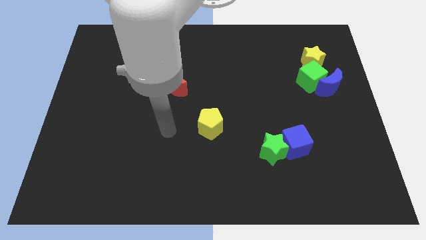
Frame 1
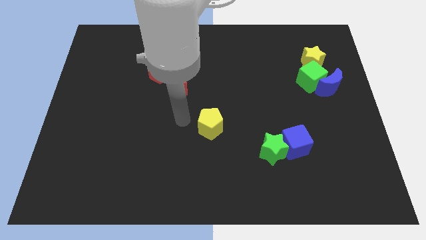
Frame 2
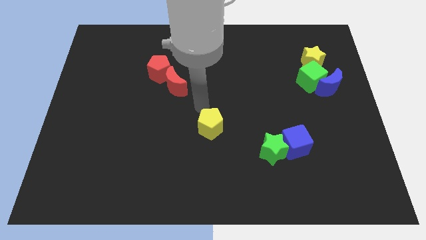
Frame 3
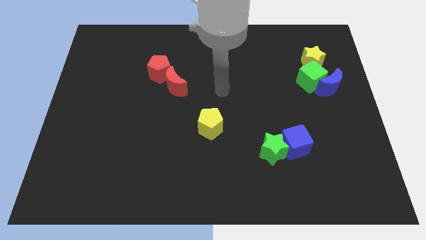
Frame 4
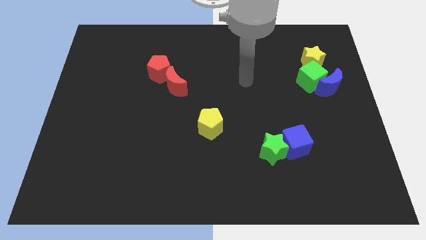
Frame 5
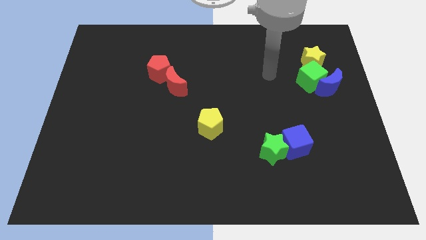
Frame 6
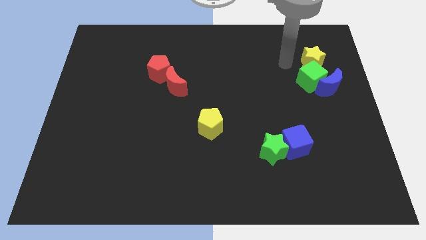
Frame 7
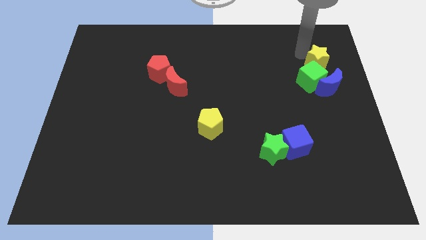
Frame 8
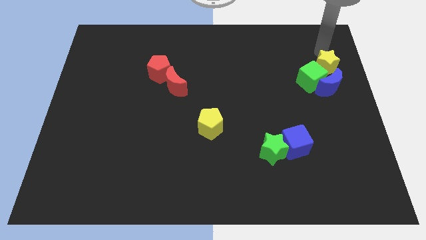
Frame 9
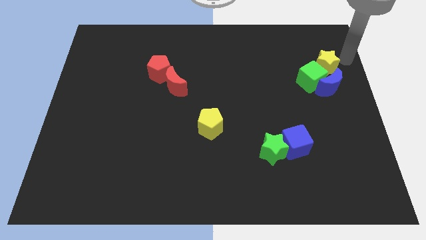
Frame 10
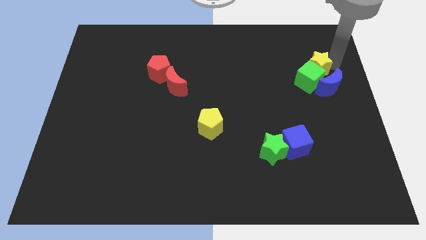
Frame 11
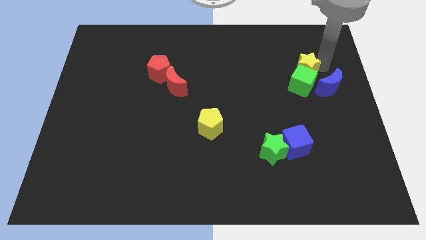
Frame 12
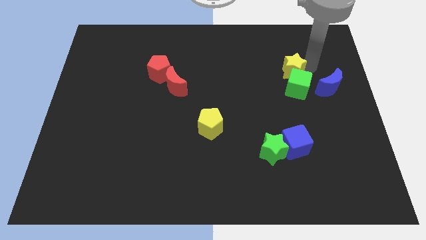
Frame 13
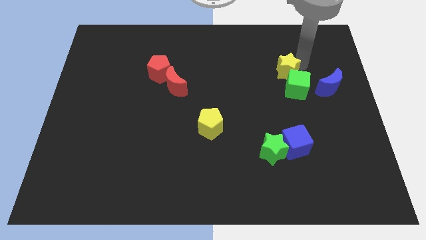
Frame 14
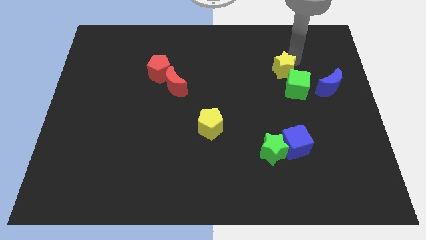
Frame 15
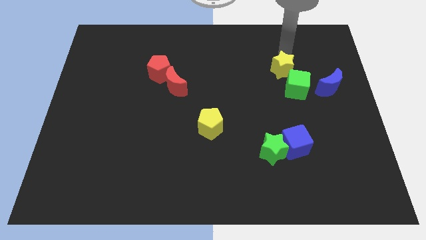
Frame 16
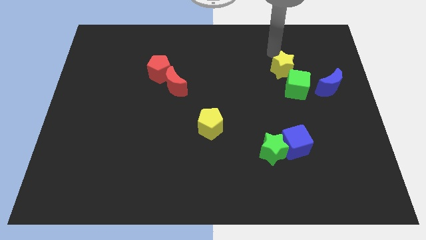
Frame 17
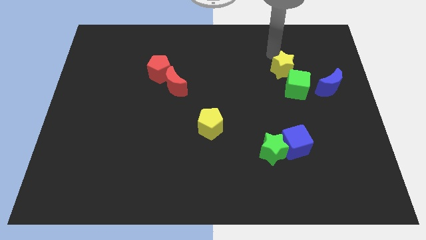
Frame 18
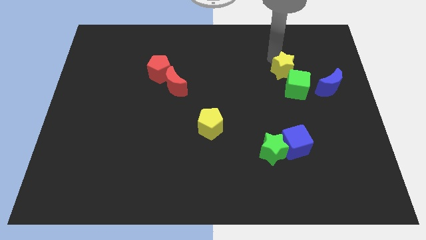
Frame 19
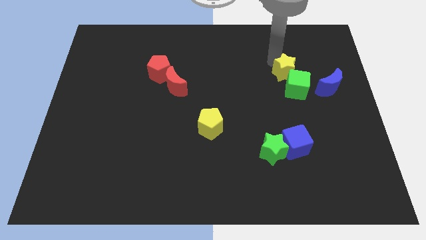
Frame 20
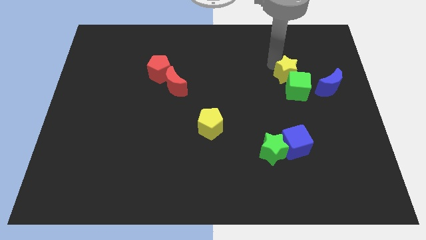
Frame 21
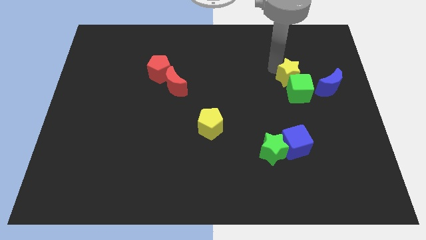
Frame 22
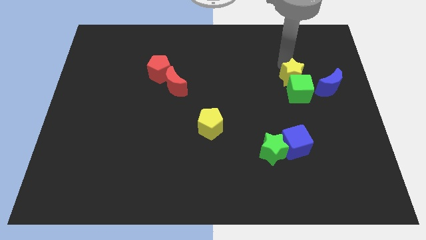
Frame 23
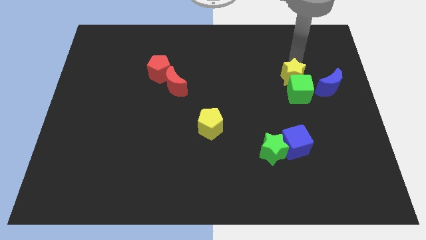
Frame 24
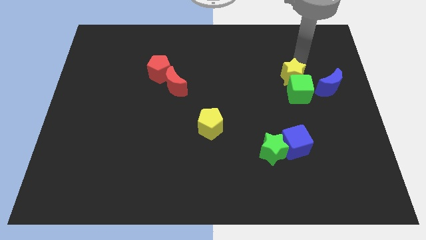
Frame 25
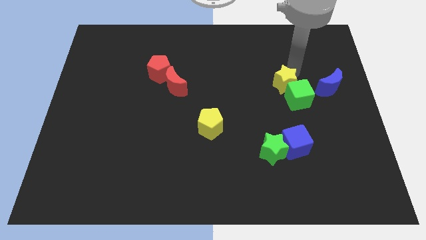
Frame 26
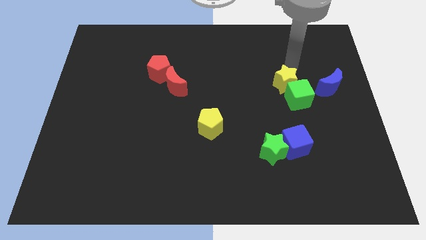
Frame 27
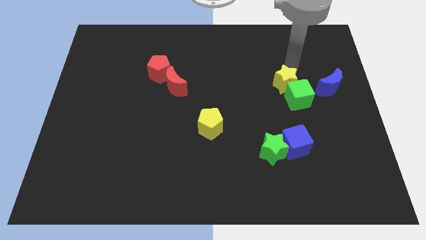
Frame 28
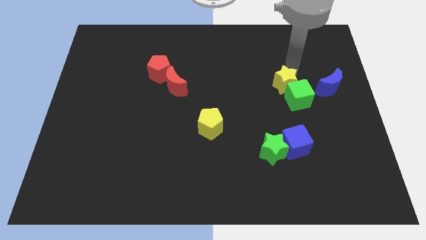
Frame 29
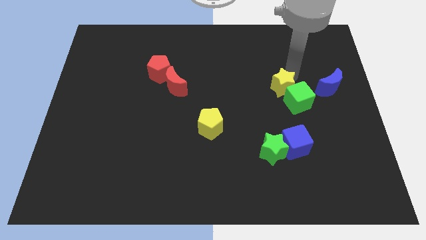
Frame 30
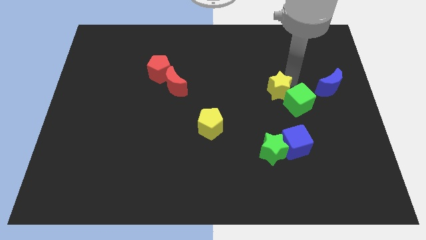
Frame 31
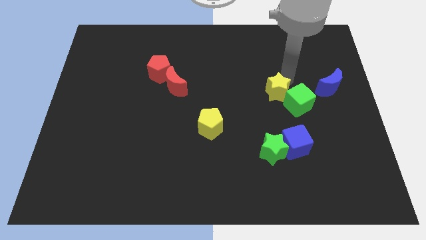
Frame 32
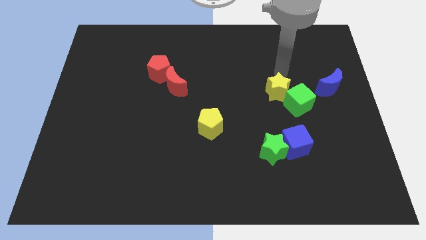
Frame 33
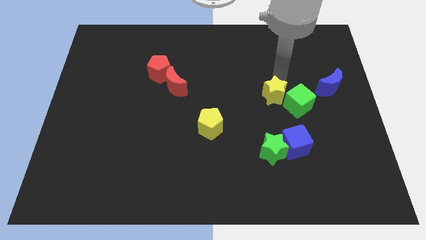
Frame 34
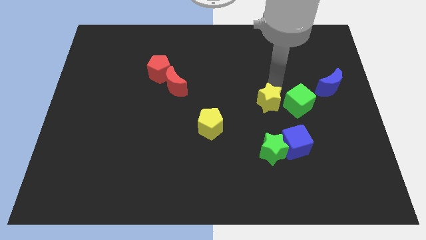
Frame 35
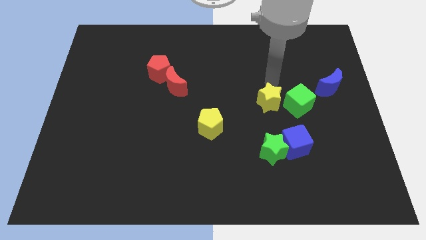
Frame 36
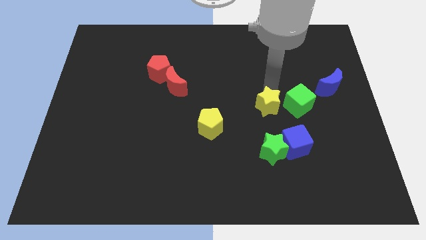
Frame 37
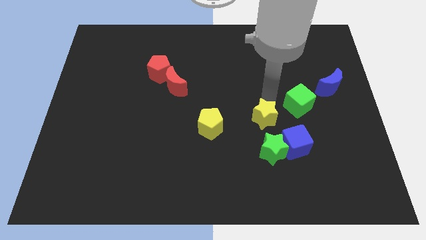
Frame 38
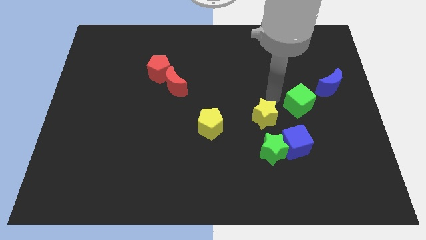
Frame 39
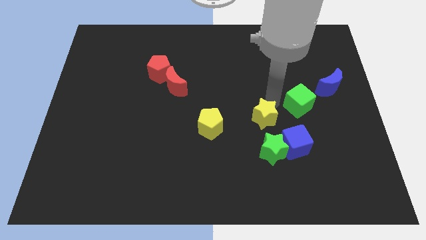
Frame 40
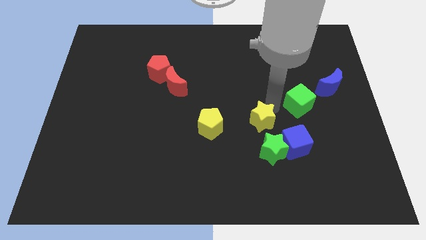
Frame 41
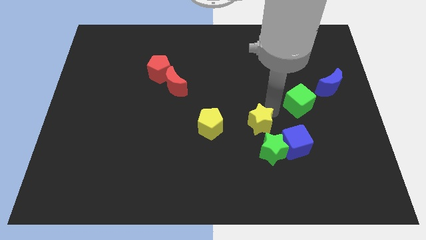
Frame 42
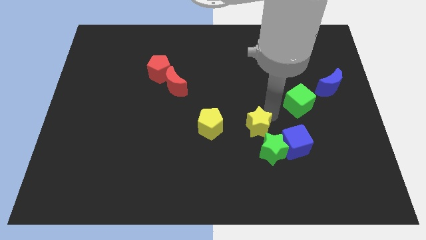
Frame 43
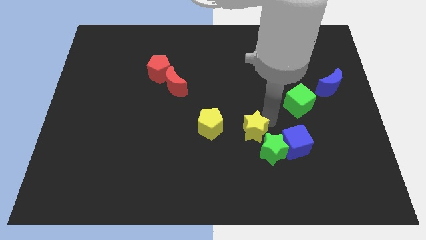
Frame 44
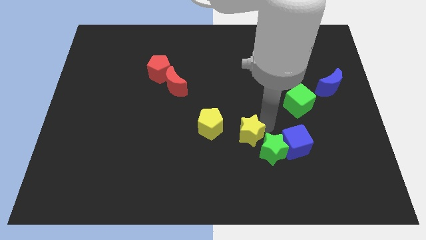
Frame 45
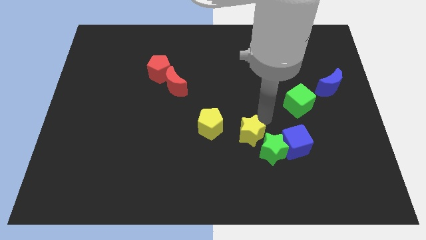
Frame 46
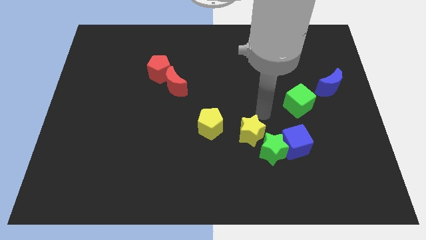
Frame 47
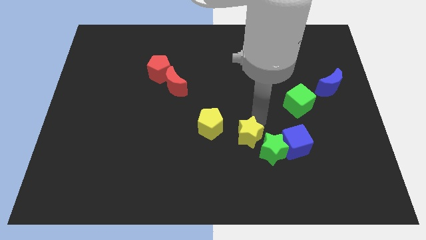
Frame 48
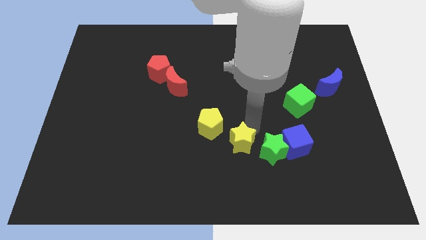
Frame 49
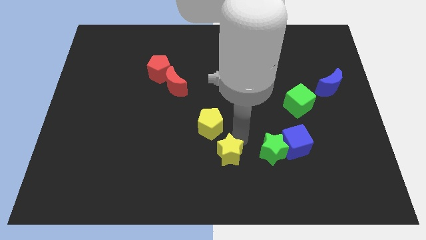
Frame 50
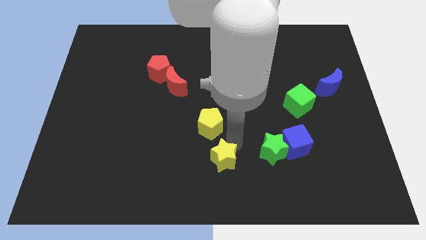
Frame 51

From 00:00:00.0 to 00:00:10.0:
push the yellow star to the bottom

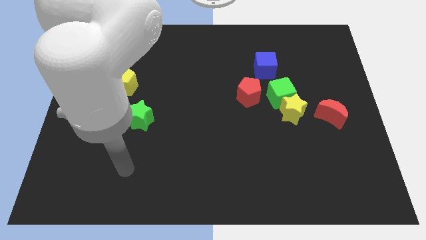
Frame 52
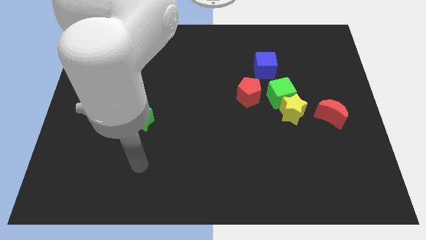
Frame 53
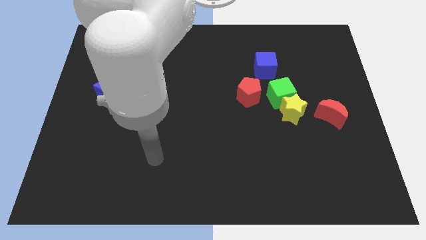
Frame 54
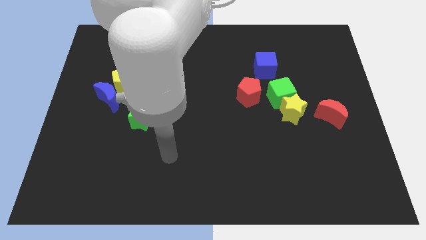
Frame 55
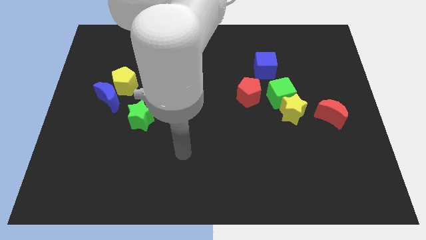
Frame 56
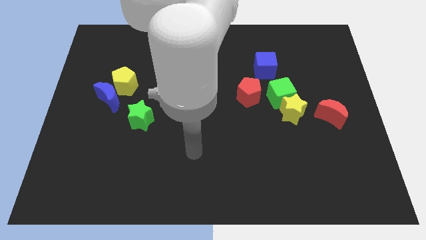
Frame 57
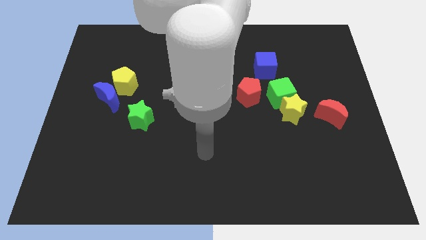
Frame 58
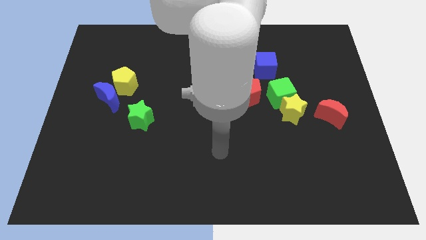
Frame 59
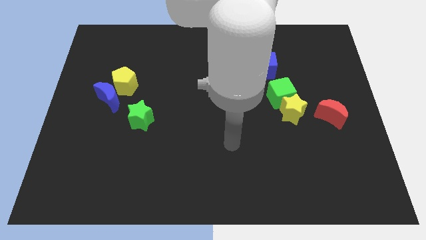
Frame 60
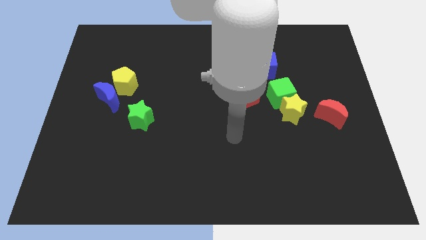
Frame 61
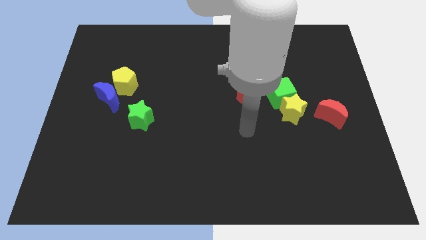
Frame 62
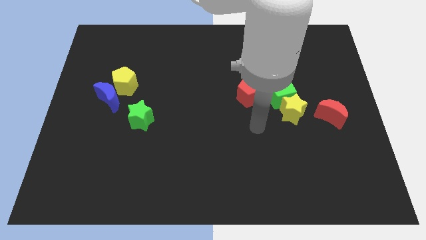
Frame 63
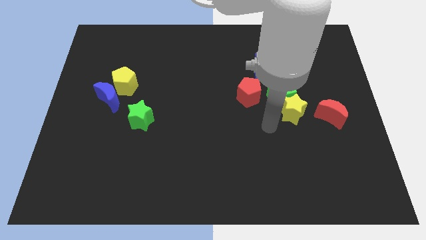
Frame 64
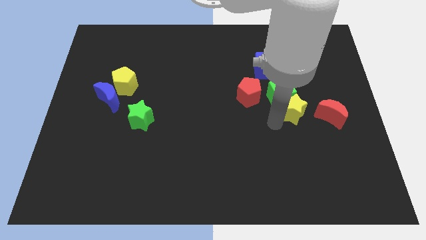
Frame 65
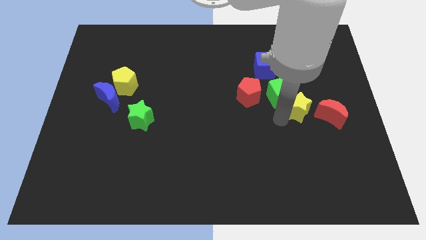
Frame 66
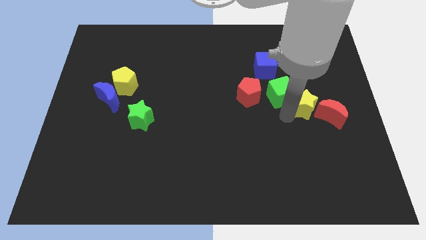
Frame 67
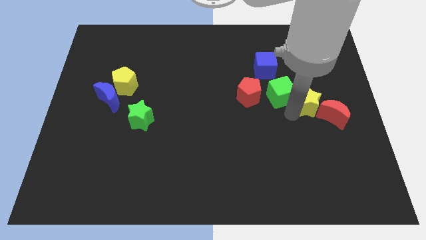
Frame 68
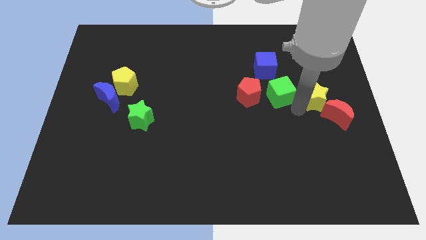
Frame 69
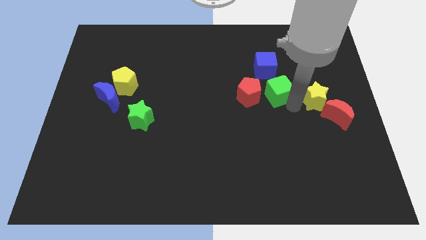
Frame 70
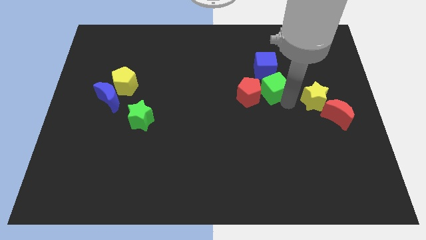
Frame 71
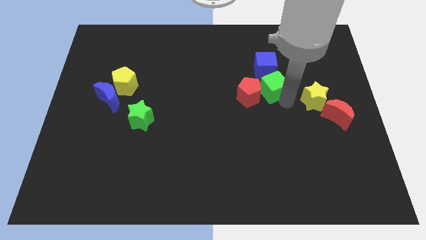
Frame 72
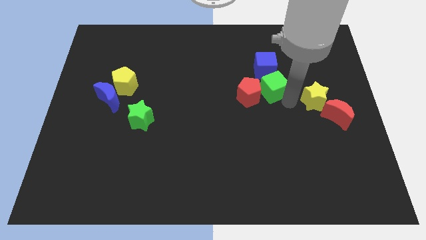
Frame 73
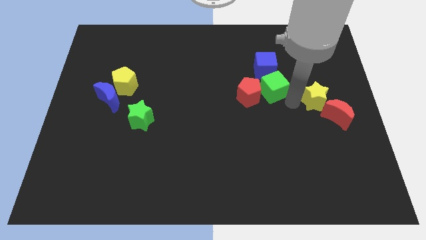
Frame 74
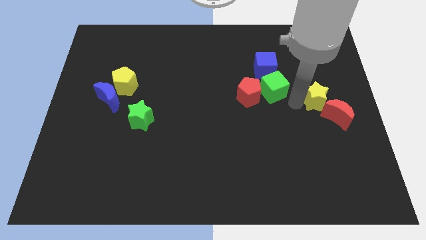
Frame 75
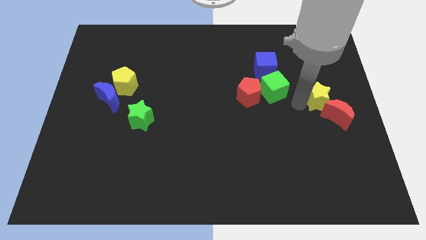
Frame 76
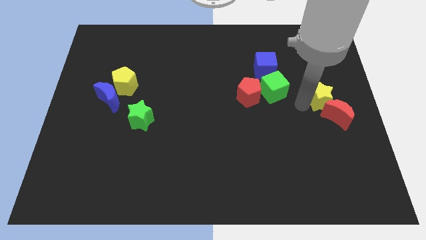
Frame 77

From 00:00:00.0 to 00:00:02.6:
push the yellow star to the right side
